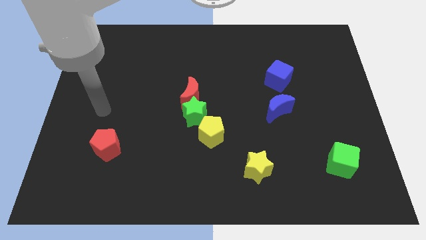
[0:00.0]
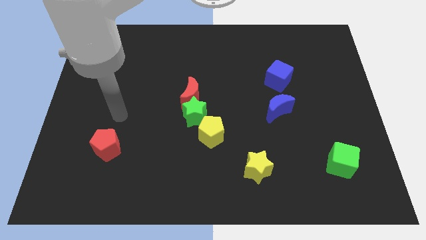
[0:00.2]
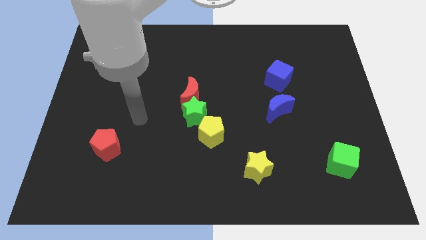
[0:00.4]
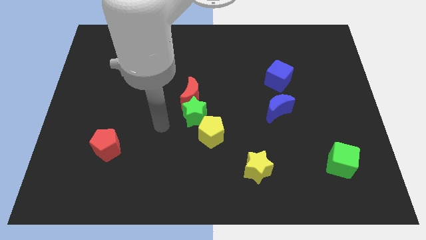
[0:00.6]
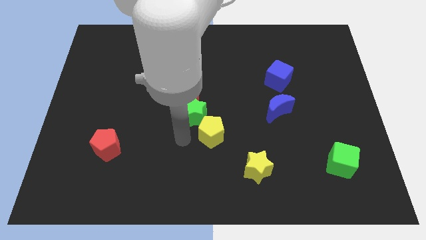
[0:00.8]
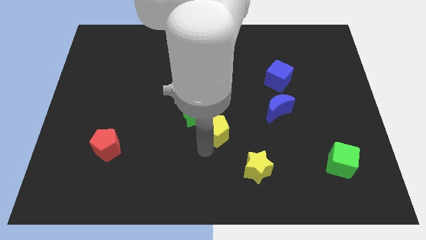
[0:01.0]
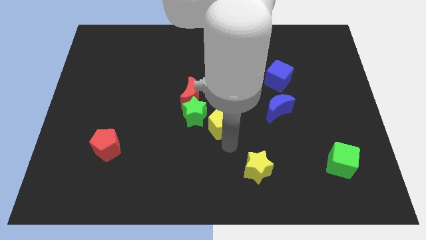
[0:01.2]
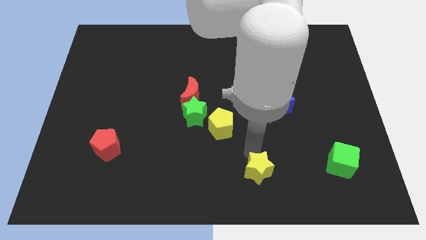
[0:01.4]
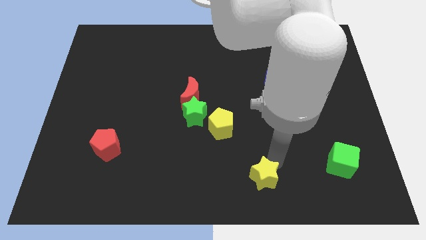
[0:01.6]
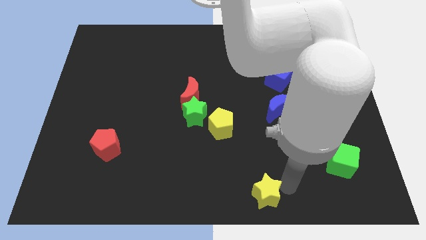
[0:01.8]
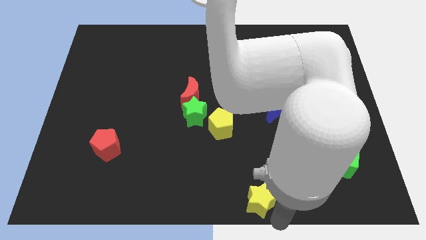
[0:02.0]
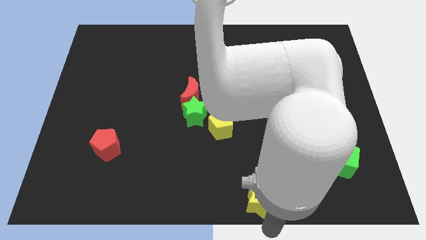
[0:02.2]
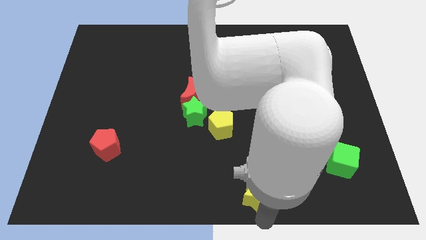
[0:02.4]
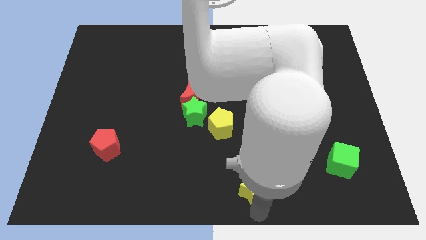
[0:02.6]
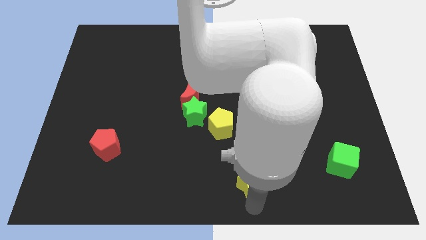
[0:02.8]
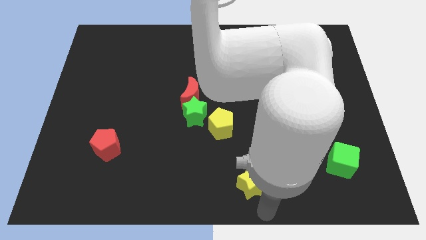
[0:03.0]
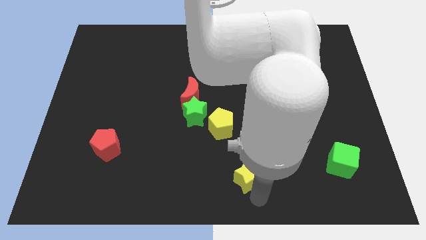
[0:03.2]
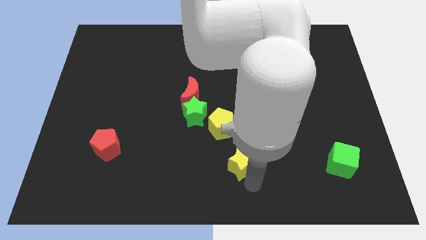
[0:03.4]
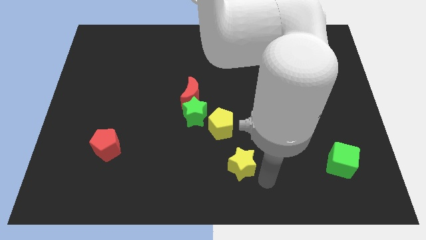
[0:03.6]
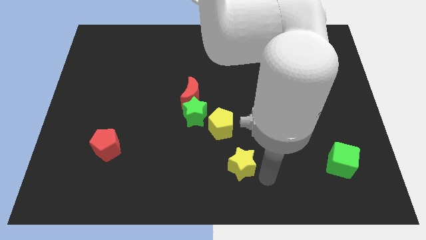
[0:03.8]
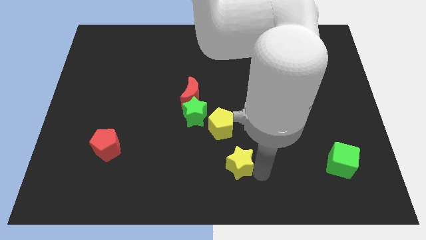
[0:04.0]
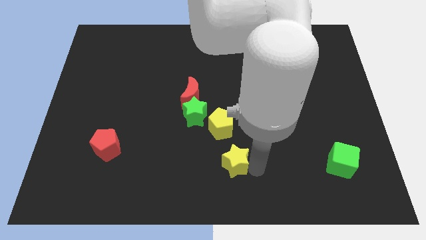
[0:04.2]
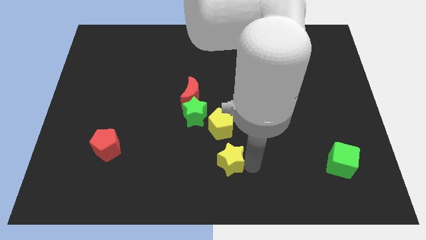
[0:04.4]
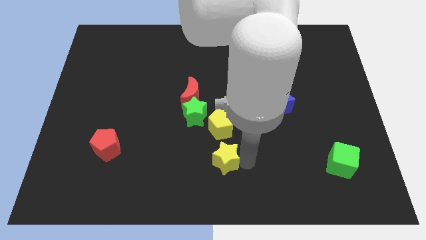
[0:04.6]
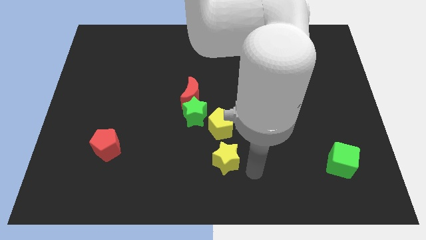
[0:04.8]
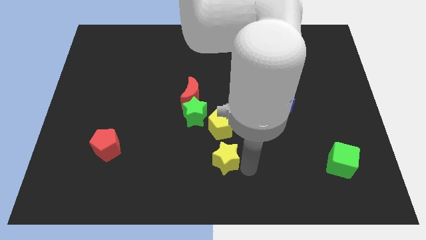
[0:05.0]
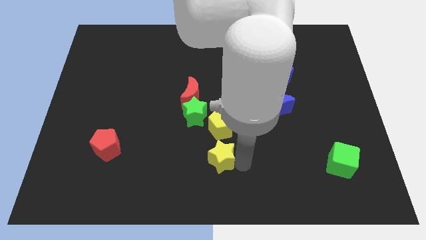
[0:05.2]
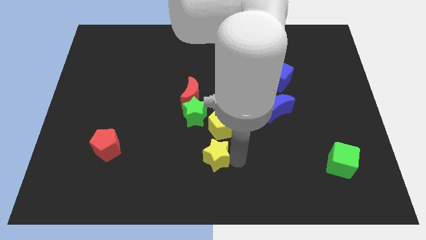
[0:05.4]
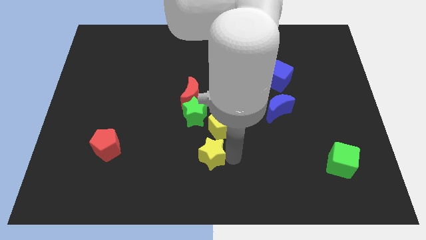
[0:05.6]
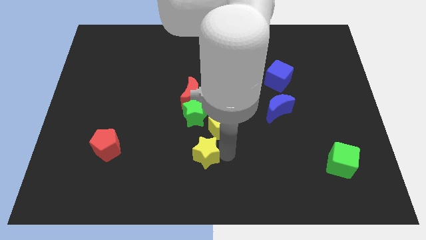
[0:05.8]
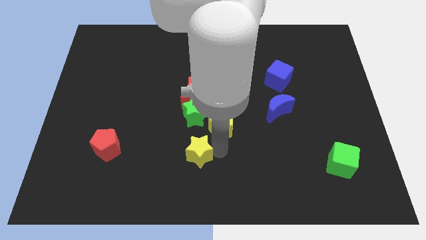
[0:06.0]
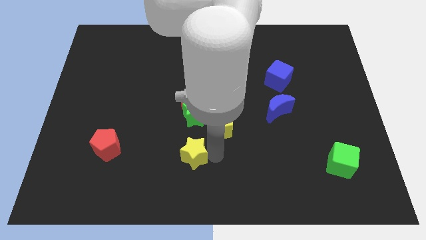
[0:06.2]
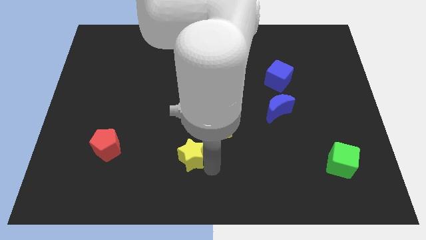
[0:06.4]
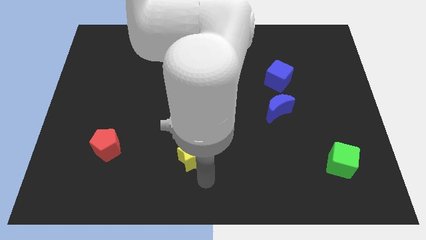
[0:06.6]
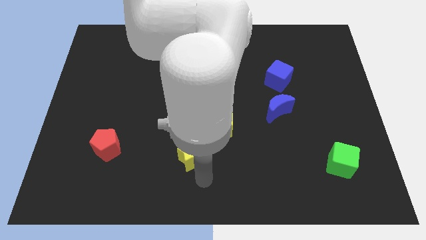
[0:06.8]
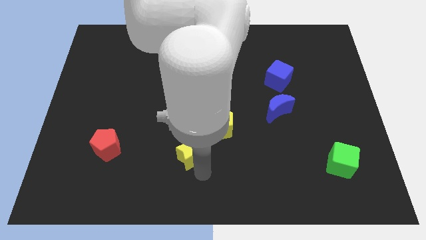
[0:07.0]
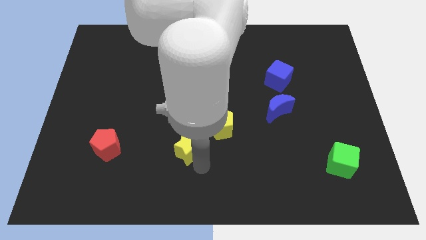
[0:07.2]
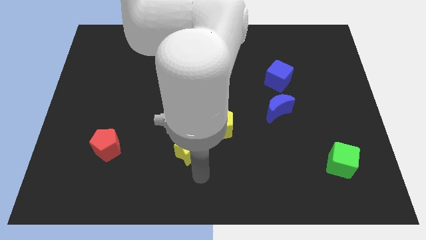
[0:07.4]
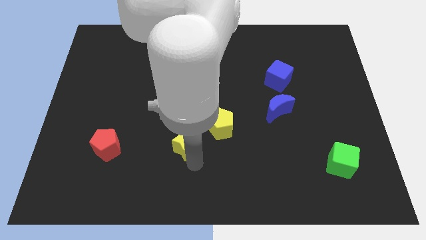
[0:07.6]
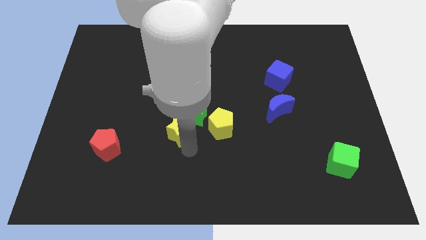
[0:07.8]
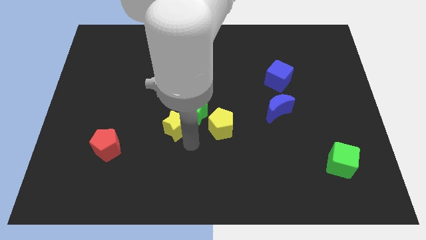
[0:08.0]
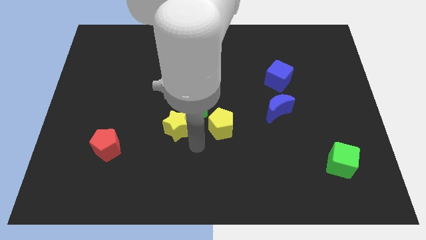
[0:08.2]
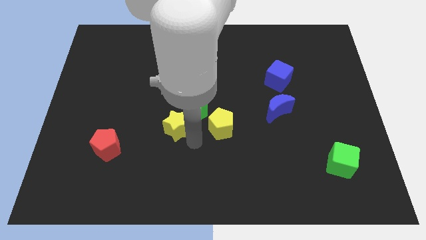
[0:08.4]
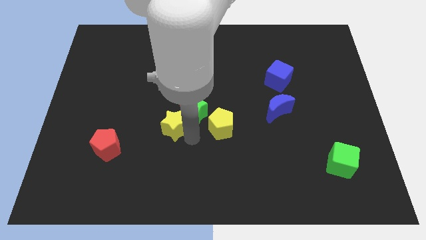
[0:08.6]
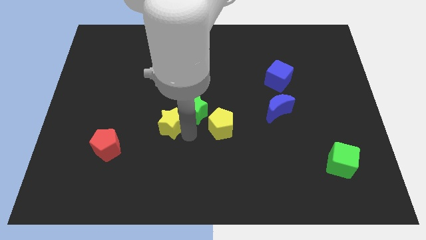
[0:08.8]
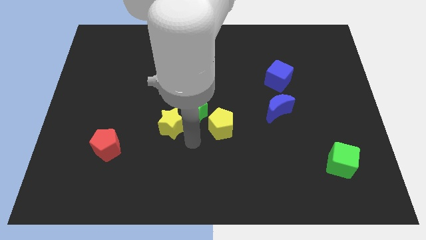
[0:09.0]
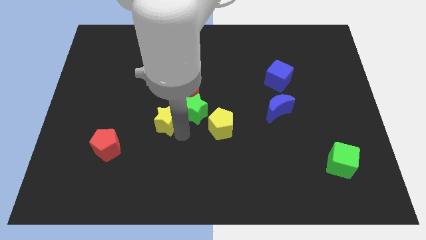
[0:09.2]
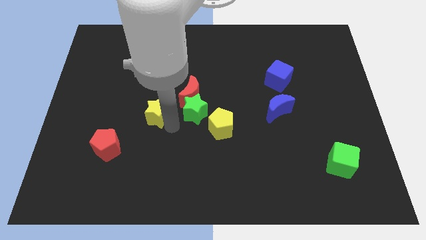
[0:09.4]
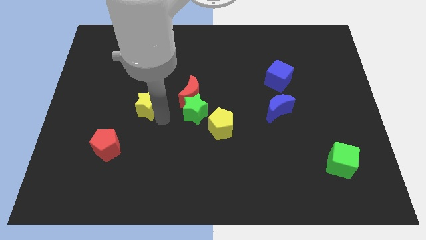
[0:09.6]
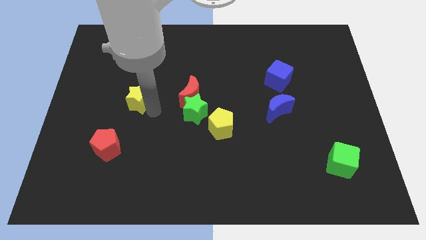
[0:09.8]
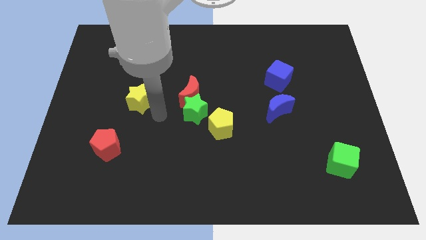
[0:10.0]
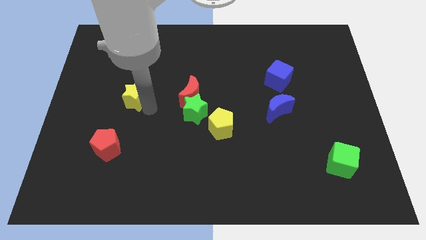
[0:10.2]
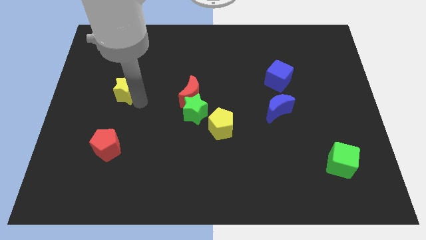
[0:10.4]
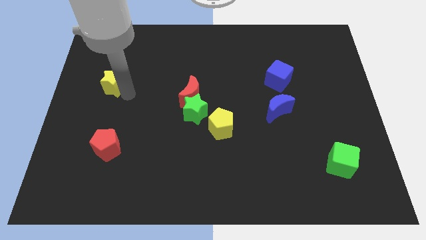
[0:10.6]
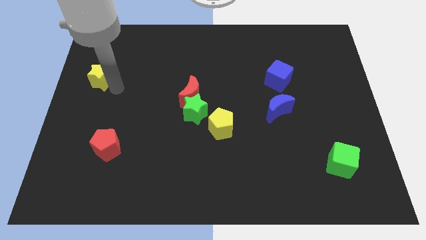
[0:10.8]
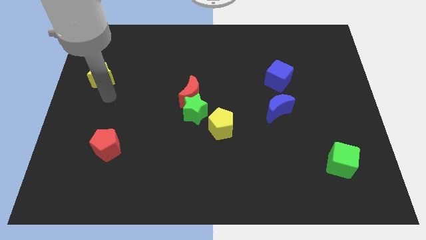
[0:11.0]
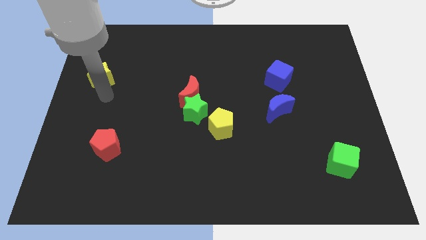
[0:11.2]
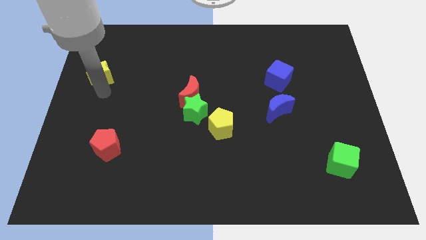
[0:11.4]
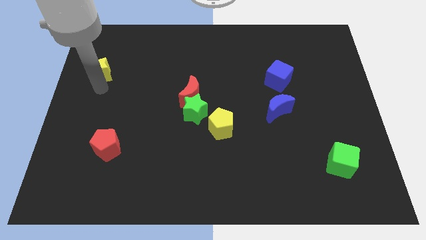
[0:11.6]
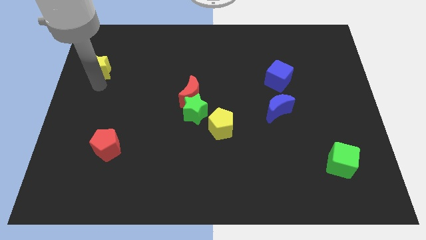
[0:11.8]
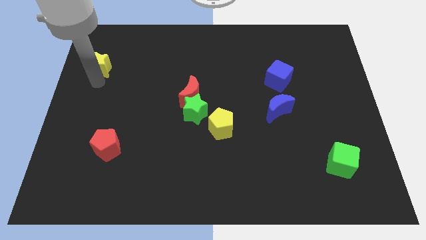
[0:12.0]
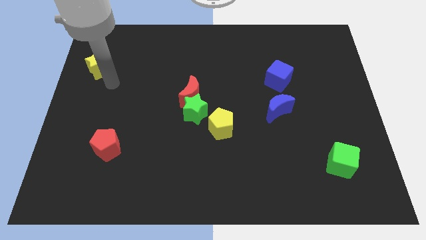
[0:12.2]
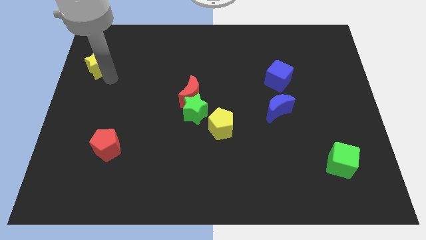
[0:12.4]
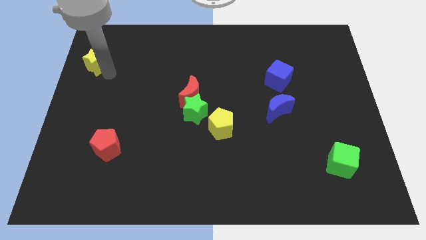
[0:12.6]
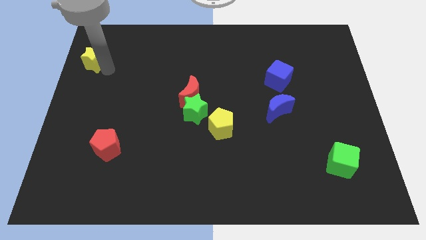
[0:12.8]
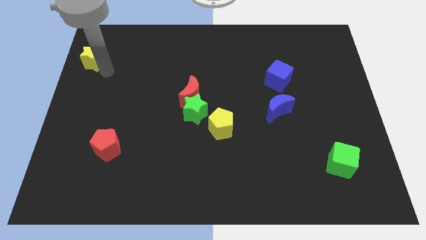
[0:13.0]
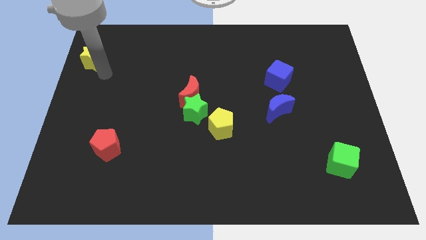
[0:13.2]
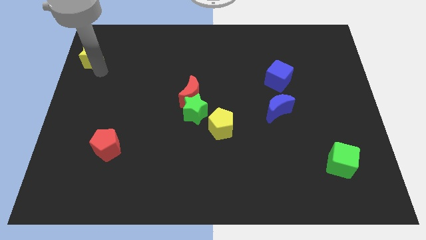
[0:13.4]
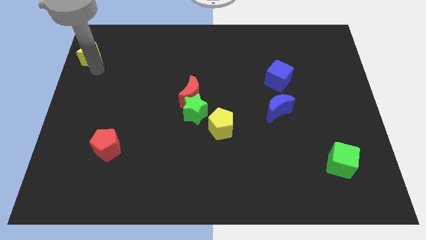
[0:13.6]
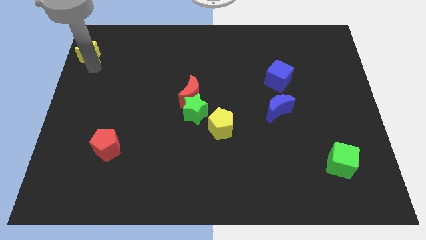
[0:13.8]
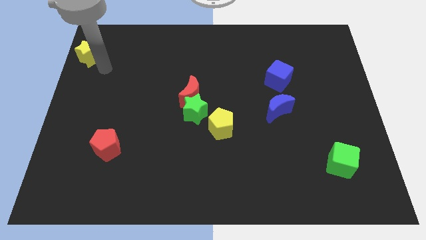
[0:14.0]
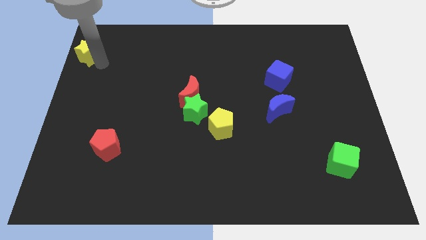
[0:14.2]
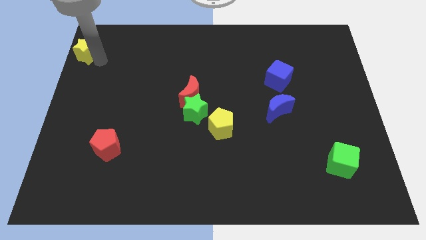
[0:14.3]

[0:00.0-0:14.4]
move the yellow star to the top left
